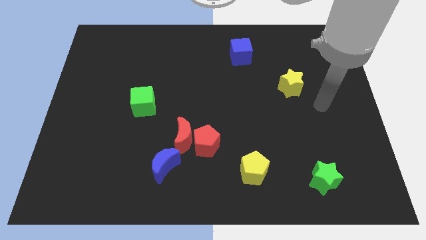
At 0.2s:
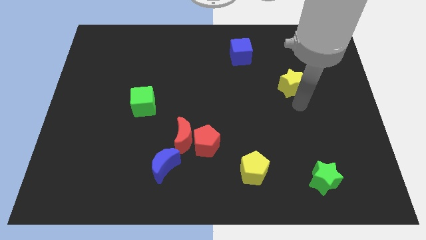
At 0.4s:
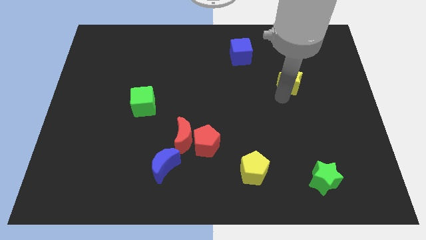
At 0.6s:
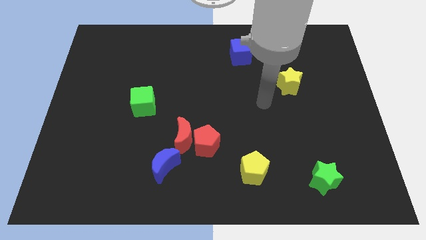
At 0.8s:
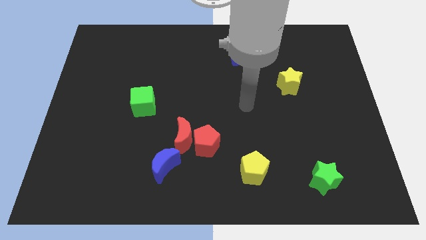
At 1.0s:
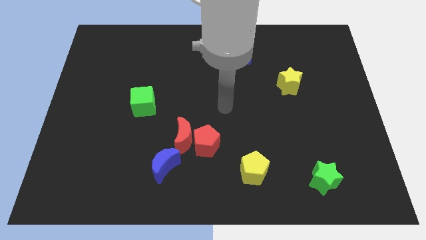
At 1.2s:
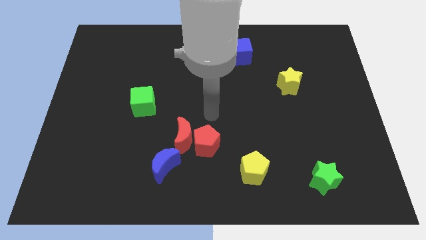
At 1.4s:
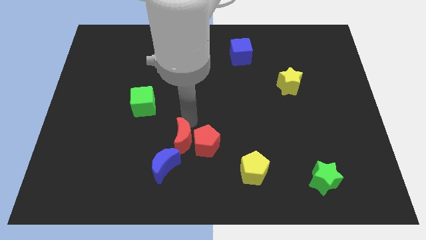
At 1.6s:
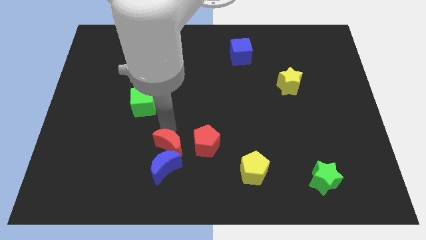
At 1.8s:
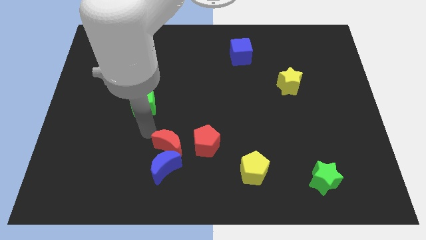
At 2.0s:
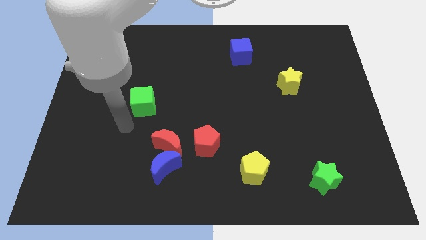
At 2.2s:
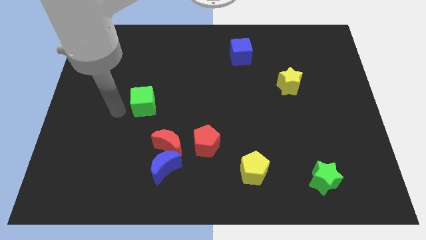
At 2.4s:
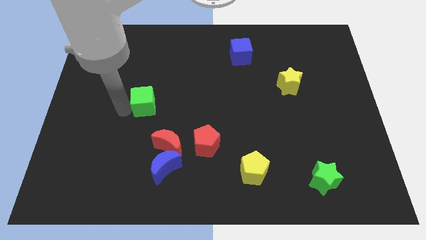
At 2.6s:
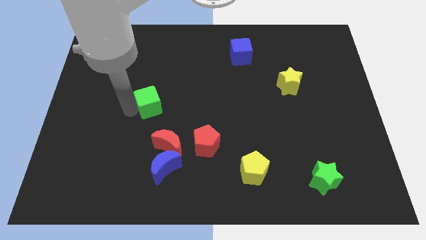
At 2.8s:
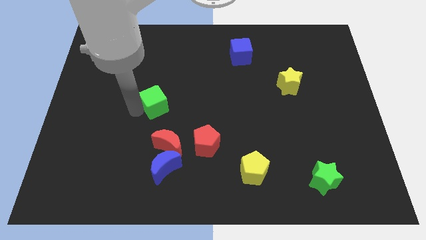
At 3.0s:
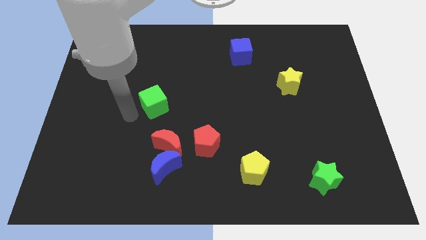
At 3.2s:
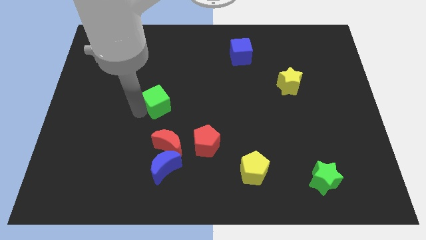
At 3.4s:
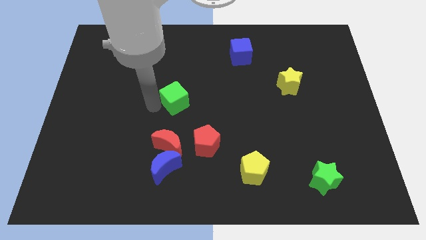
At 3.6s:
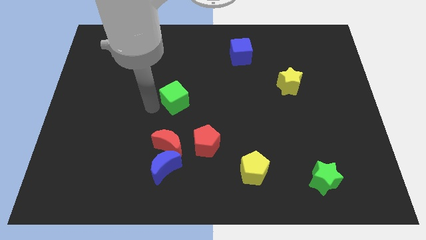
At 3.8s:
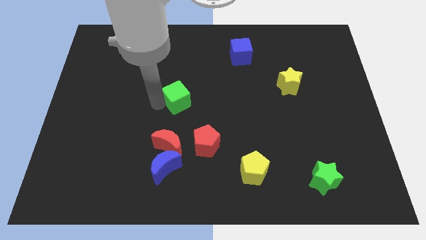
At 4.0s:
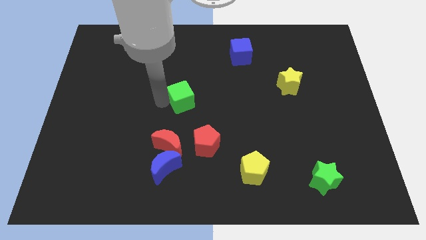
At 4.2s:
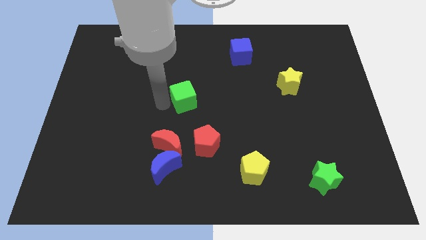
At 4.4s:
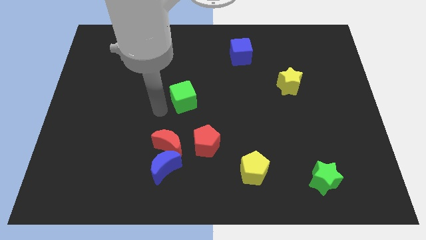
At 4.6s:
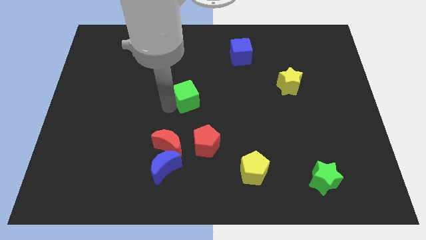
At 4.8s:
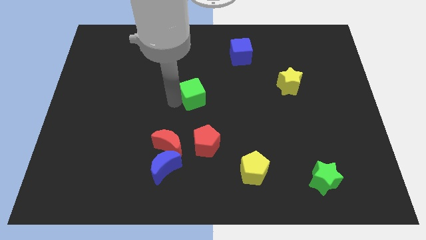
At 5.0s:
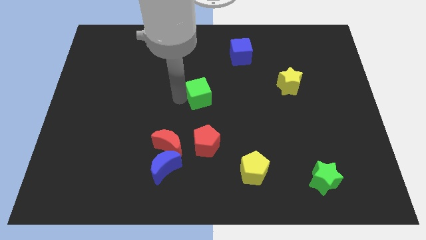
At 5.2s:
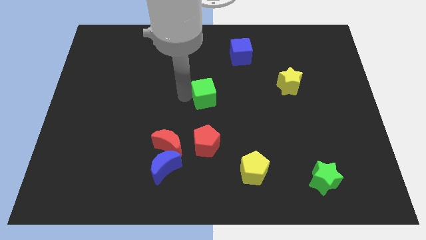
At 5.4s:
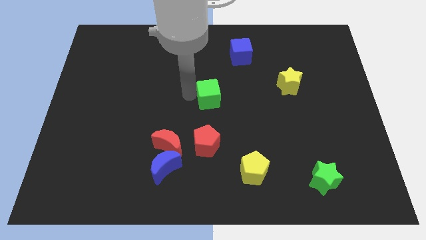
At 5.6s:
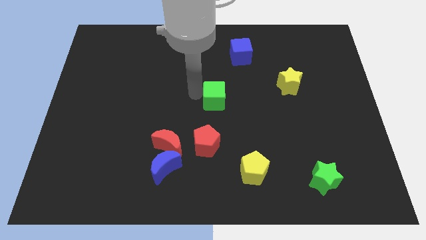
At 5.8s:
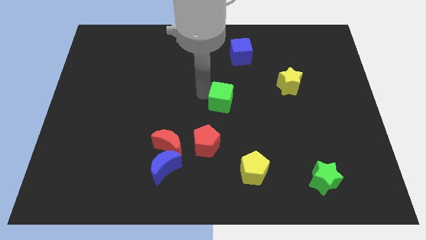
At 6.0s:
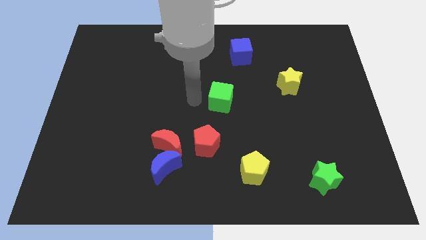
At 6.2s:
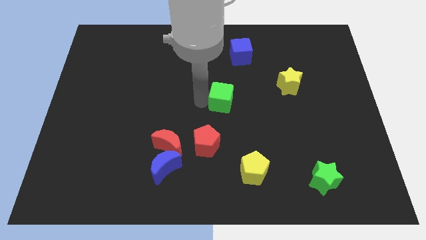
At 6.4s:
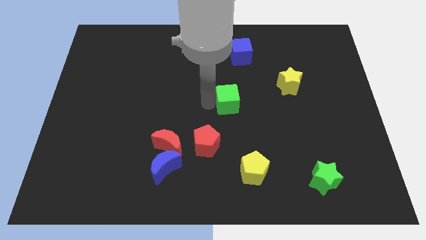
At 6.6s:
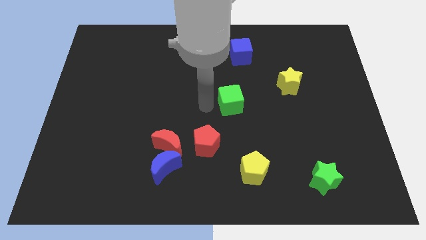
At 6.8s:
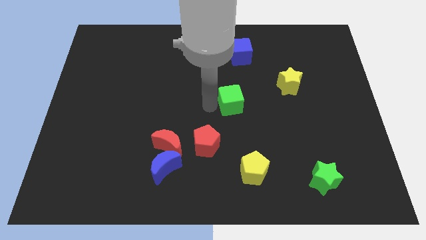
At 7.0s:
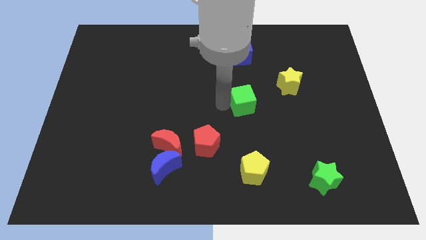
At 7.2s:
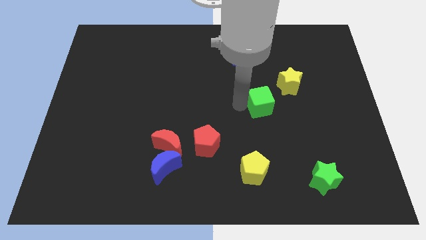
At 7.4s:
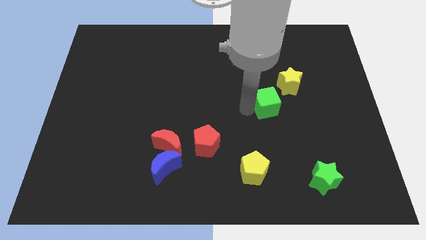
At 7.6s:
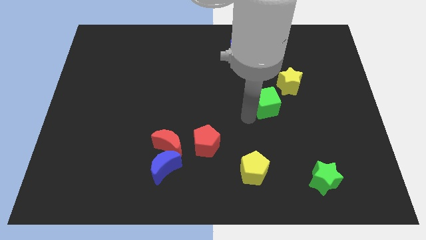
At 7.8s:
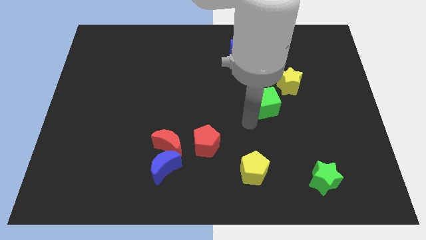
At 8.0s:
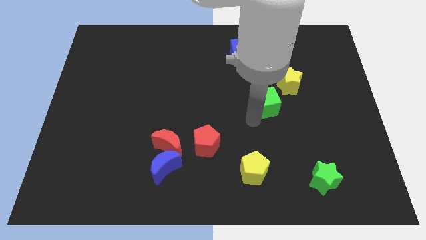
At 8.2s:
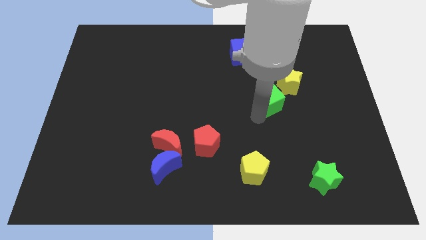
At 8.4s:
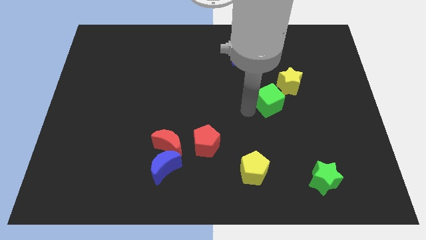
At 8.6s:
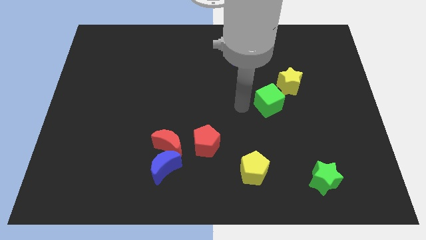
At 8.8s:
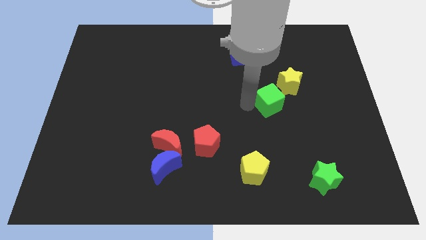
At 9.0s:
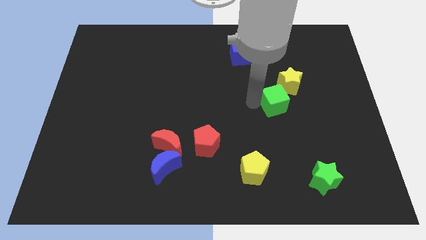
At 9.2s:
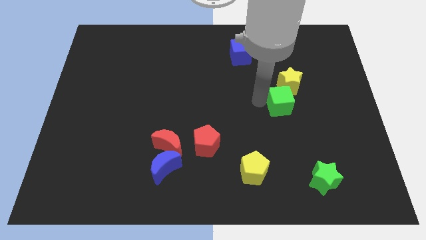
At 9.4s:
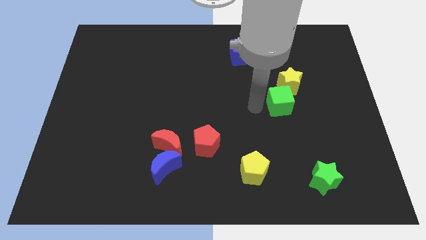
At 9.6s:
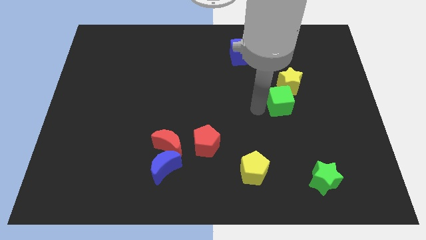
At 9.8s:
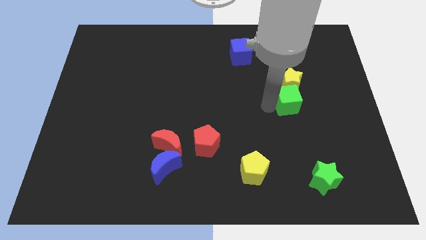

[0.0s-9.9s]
slide the green cube diagonally down and to the right of the yellow star

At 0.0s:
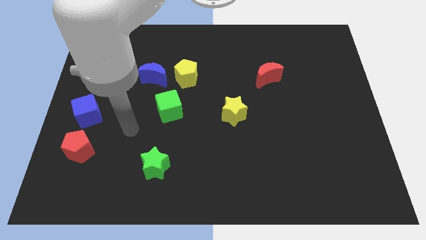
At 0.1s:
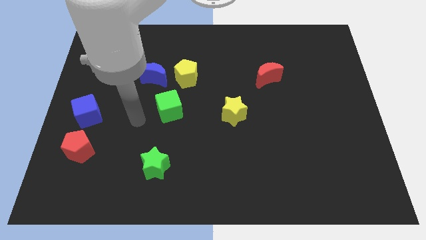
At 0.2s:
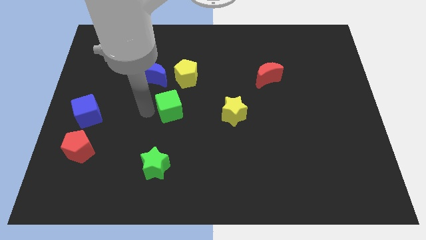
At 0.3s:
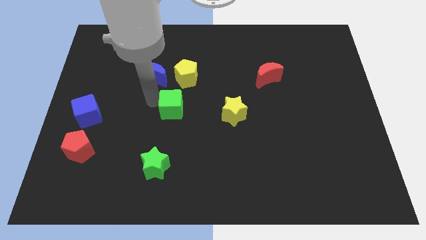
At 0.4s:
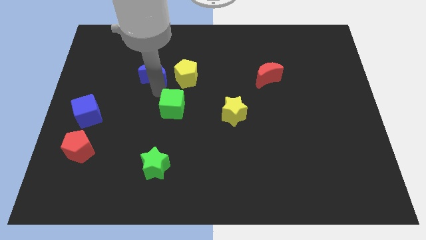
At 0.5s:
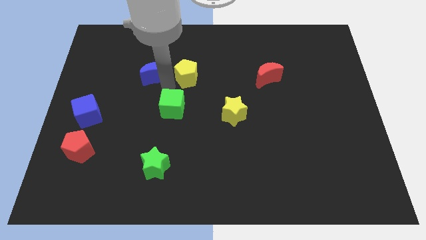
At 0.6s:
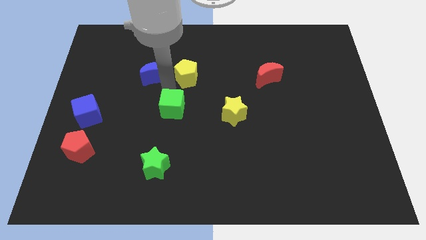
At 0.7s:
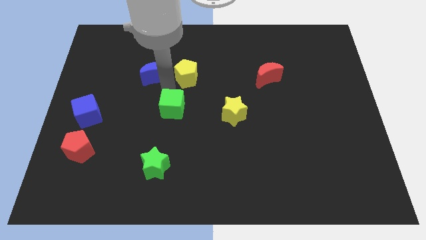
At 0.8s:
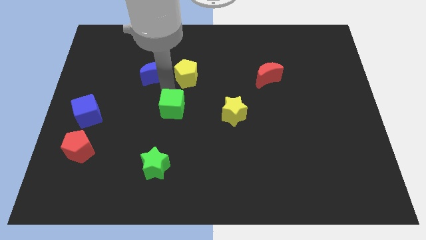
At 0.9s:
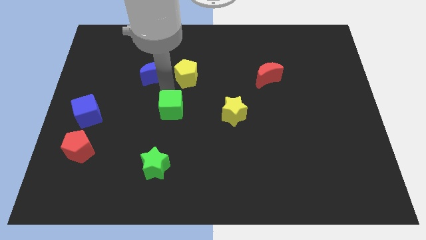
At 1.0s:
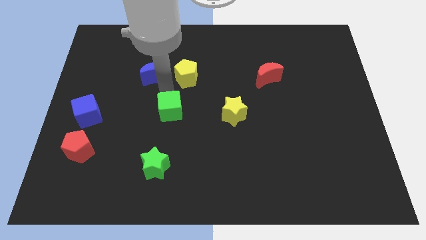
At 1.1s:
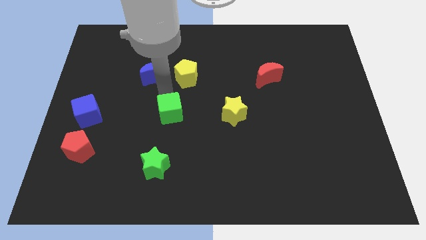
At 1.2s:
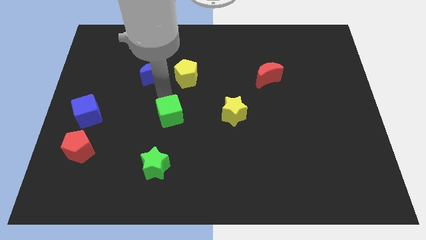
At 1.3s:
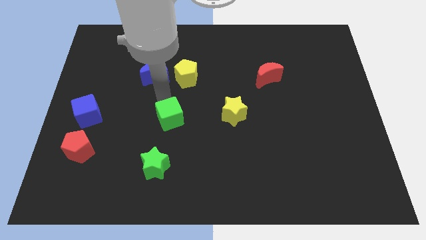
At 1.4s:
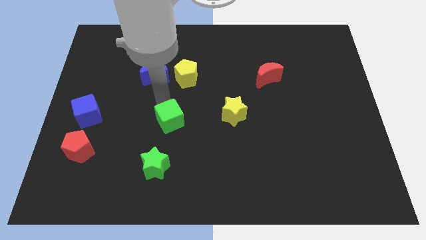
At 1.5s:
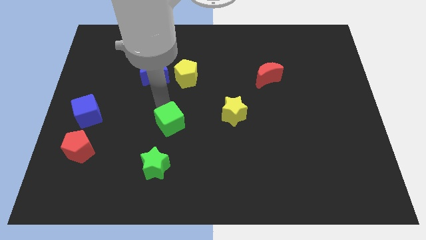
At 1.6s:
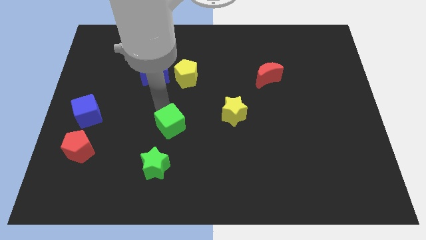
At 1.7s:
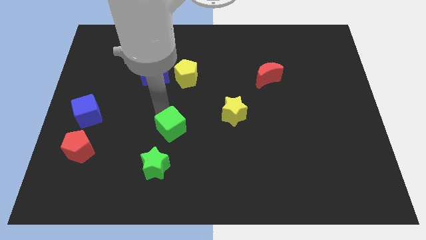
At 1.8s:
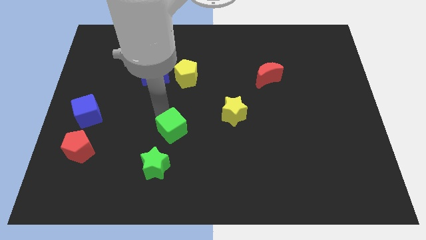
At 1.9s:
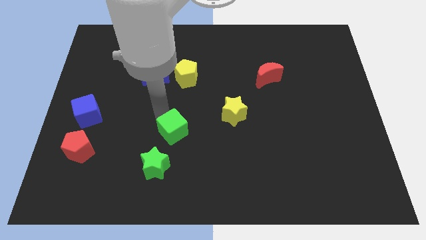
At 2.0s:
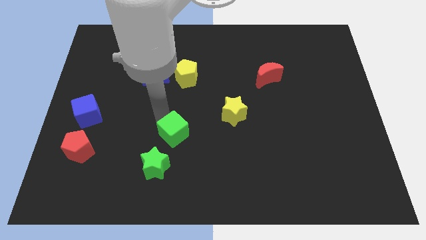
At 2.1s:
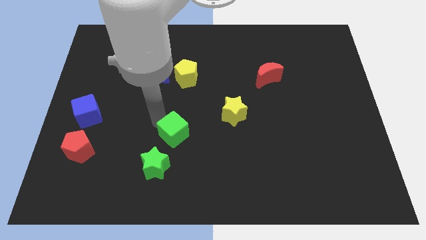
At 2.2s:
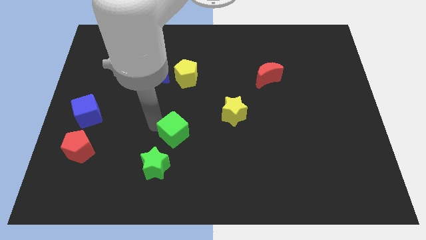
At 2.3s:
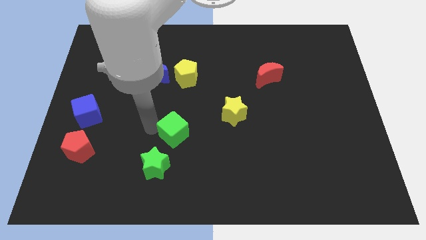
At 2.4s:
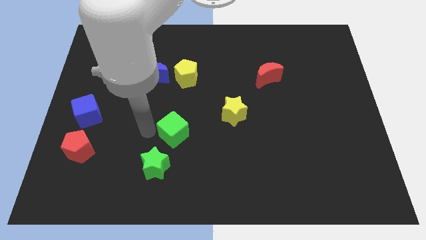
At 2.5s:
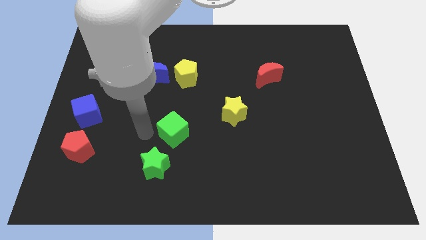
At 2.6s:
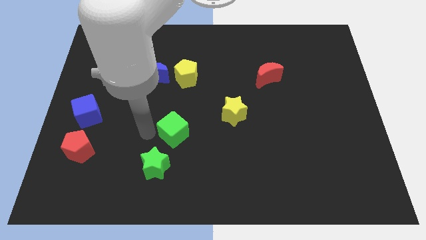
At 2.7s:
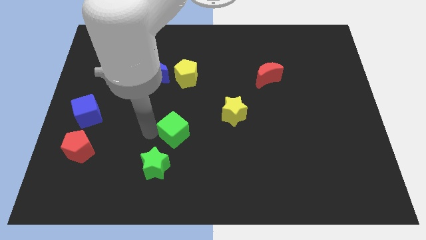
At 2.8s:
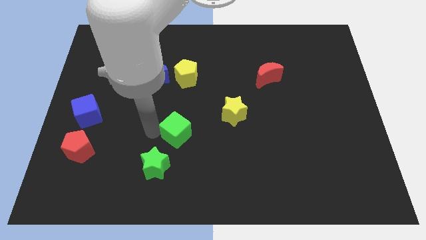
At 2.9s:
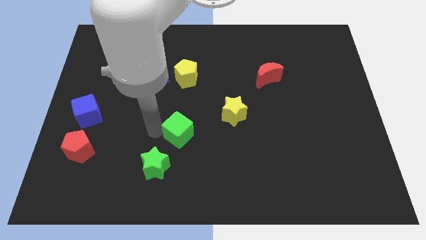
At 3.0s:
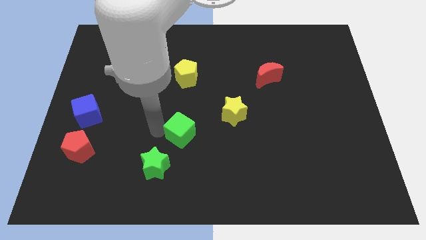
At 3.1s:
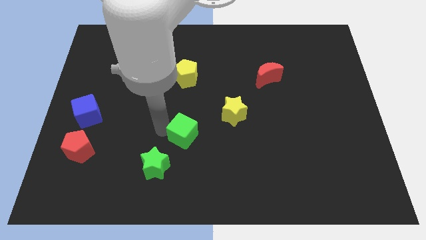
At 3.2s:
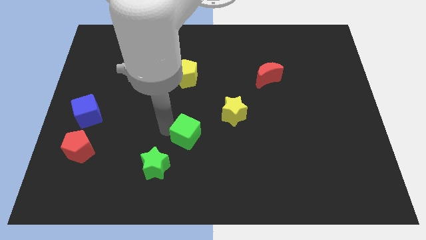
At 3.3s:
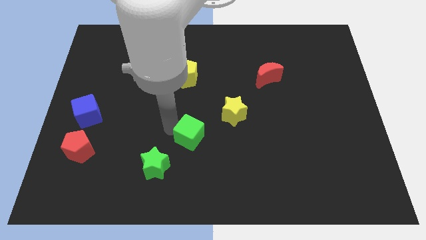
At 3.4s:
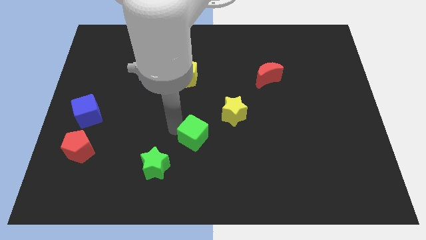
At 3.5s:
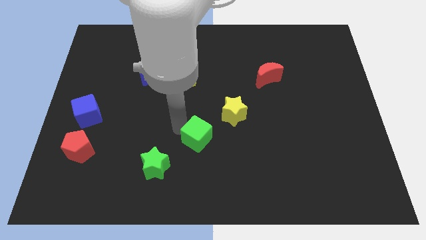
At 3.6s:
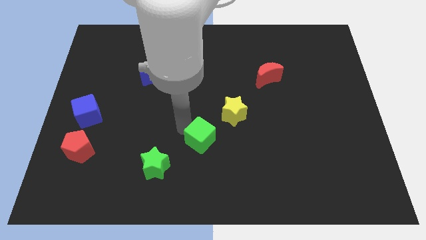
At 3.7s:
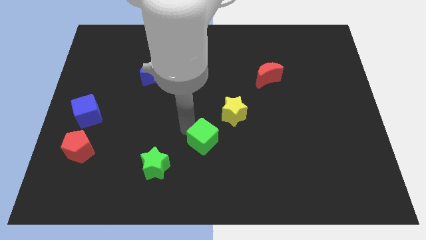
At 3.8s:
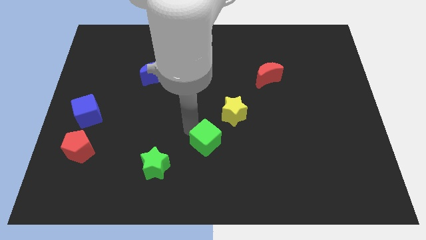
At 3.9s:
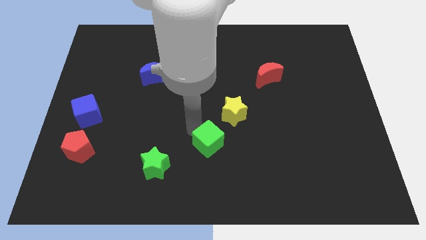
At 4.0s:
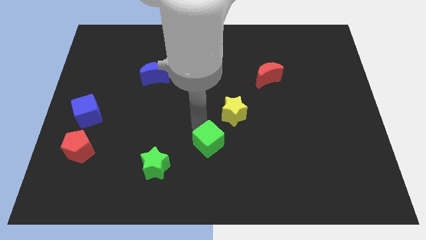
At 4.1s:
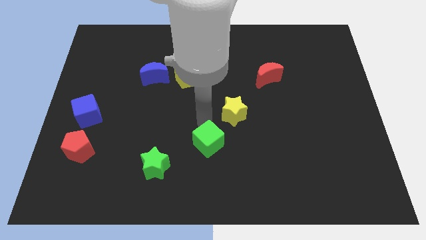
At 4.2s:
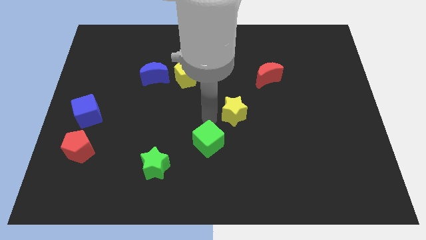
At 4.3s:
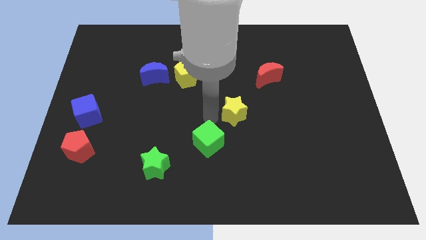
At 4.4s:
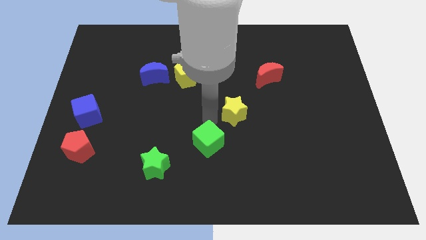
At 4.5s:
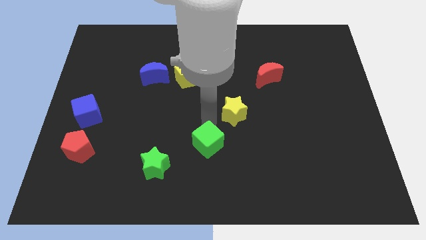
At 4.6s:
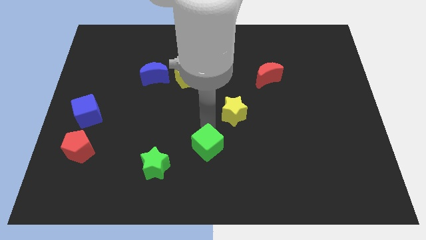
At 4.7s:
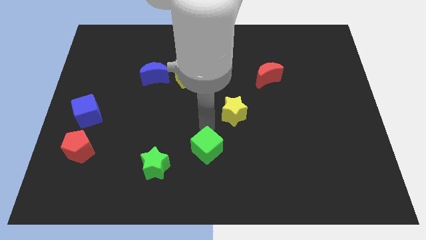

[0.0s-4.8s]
slide the green cube to the right side of the green star
